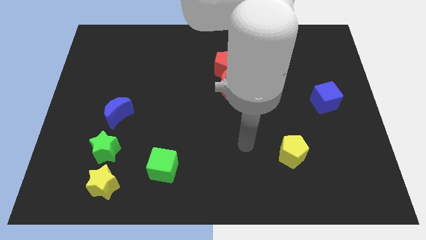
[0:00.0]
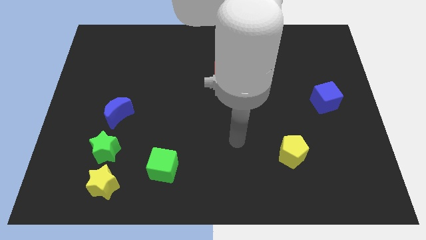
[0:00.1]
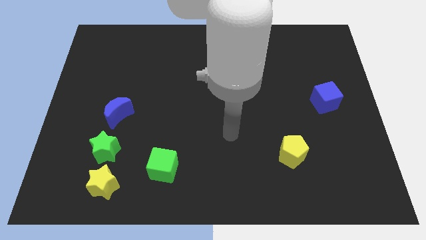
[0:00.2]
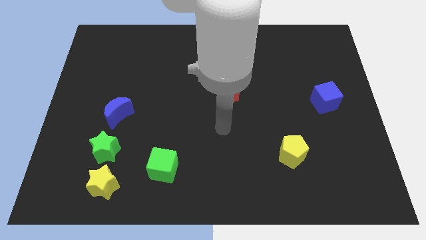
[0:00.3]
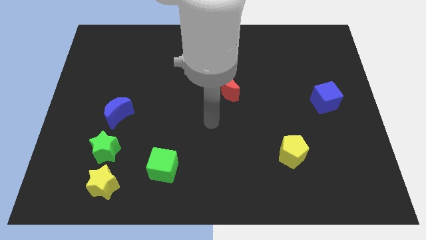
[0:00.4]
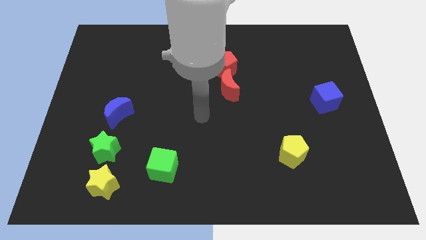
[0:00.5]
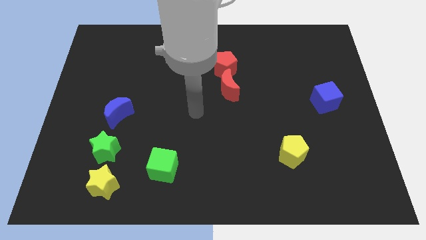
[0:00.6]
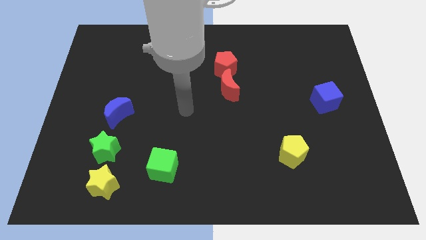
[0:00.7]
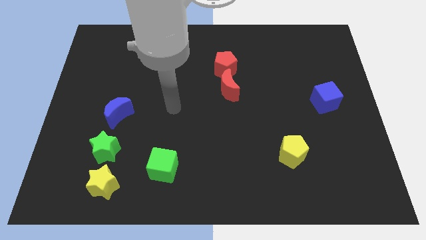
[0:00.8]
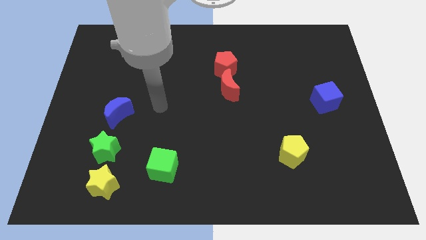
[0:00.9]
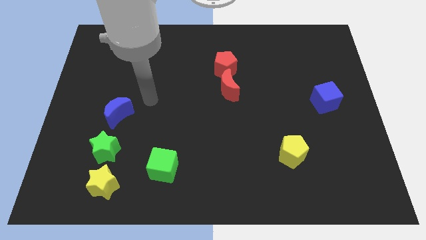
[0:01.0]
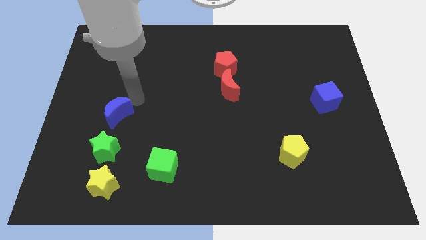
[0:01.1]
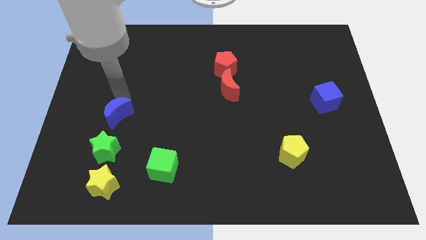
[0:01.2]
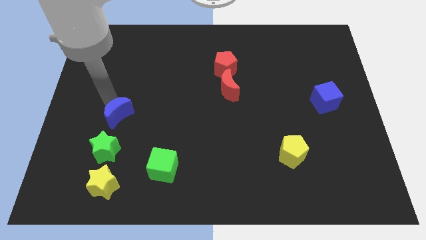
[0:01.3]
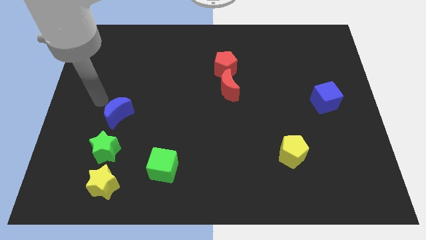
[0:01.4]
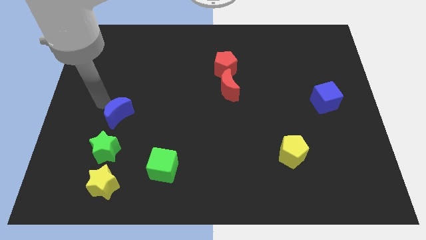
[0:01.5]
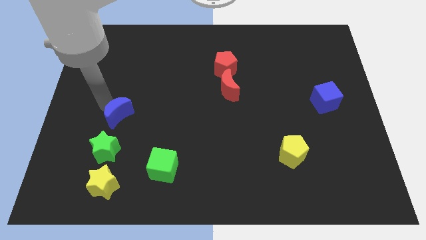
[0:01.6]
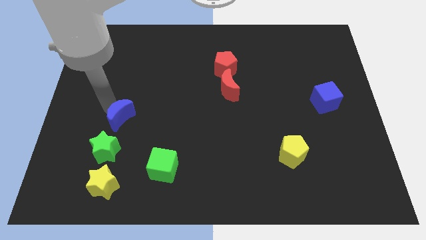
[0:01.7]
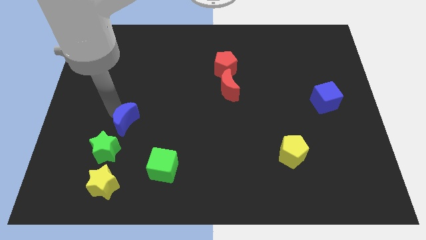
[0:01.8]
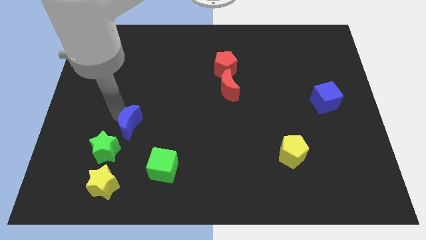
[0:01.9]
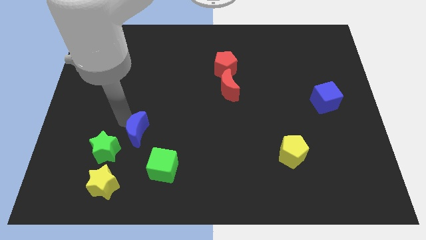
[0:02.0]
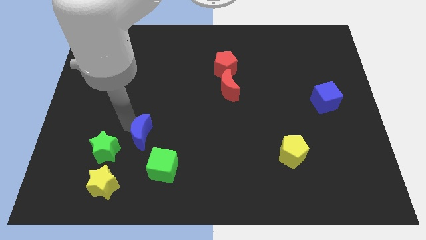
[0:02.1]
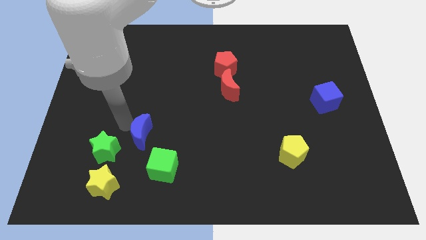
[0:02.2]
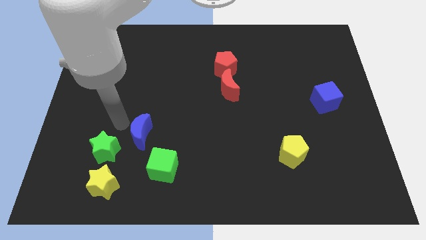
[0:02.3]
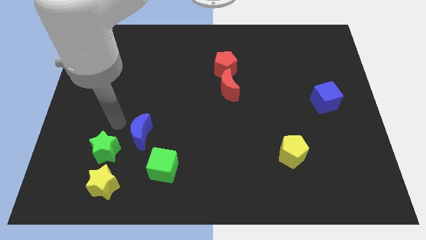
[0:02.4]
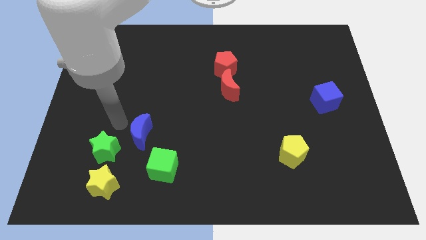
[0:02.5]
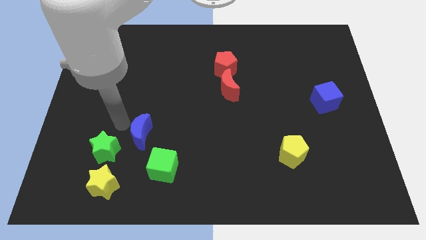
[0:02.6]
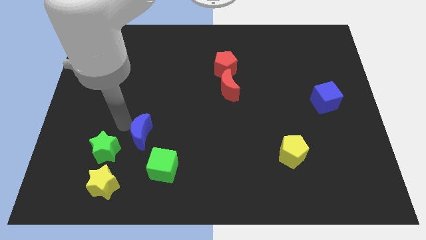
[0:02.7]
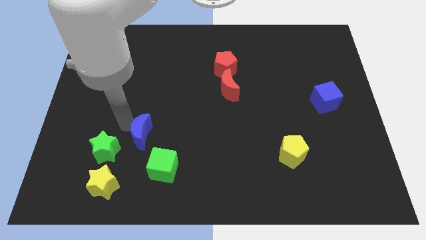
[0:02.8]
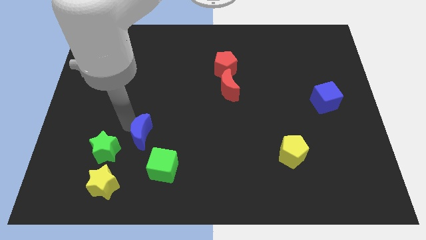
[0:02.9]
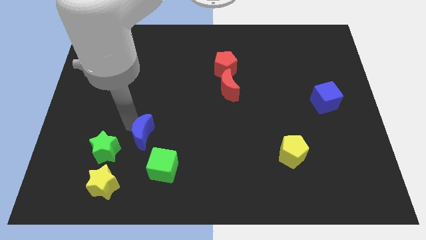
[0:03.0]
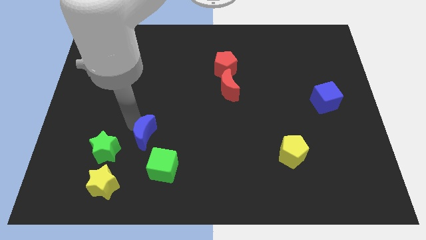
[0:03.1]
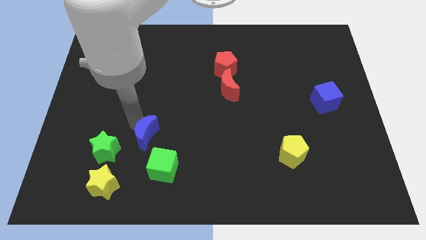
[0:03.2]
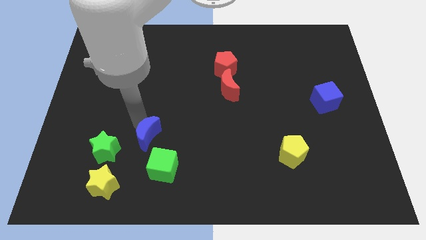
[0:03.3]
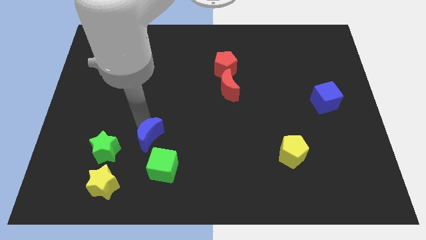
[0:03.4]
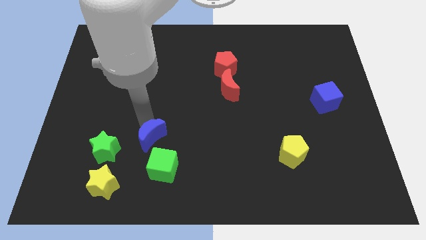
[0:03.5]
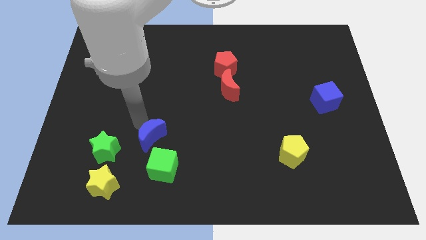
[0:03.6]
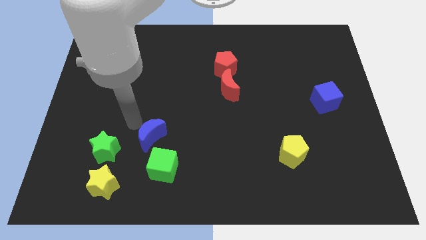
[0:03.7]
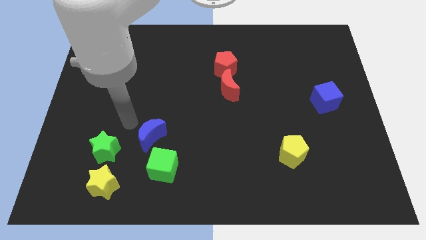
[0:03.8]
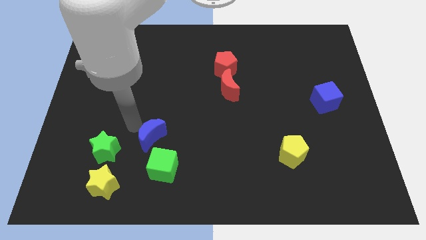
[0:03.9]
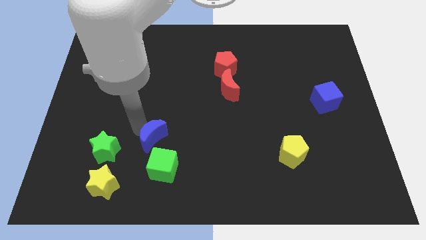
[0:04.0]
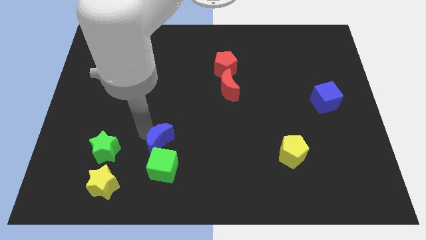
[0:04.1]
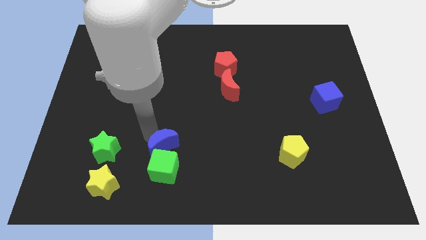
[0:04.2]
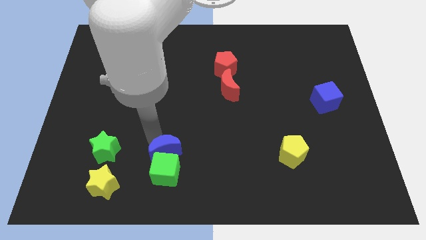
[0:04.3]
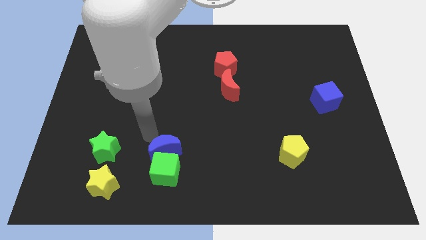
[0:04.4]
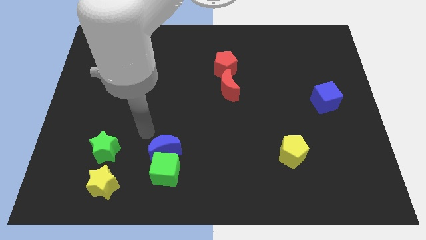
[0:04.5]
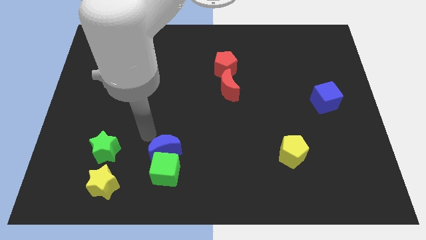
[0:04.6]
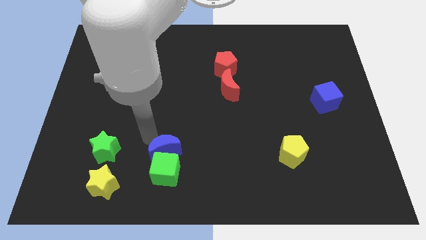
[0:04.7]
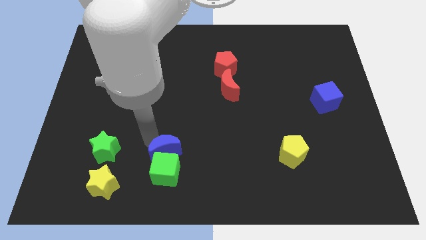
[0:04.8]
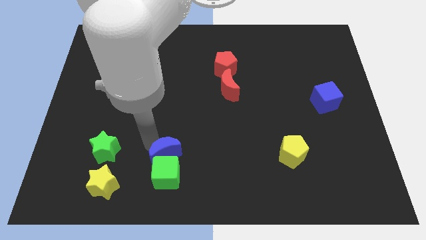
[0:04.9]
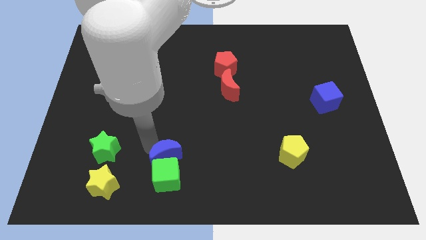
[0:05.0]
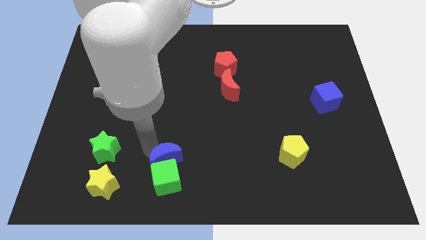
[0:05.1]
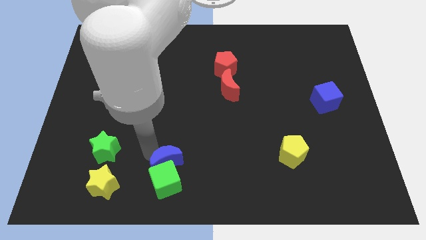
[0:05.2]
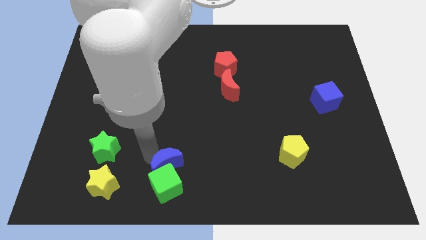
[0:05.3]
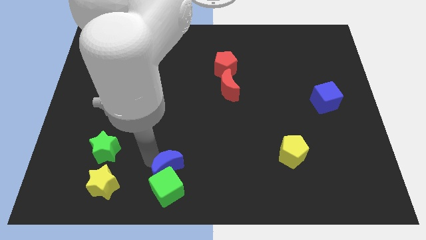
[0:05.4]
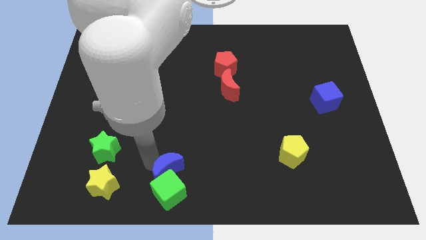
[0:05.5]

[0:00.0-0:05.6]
slide the blue moon to the bottom

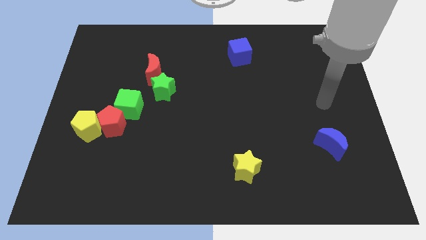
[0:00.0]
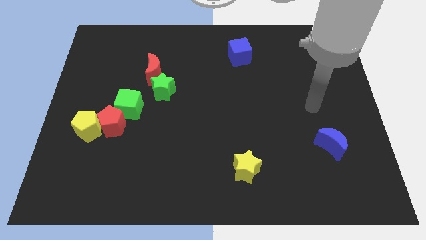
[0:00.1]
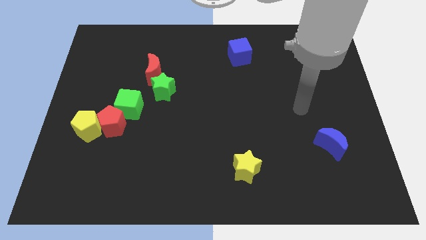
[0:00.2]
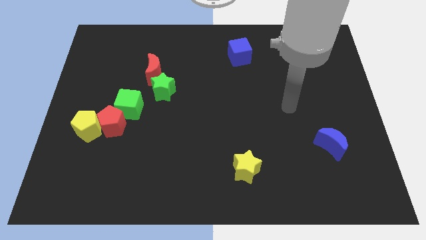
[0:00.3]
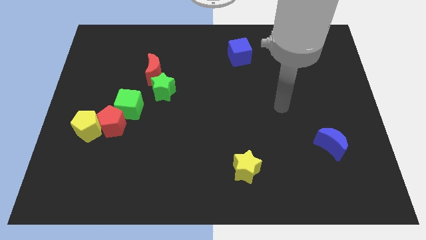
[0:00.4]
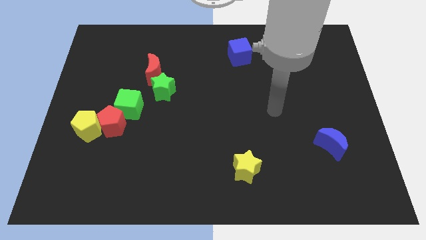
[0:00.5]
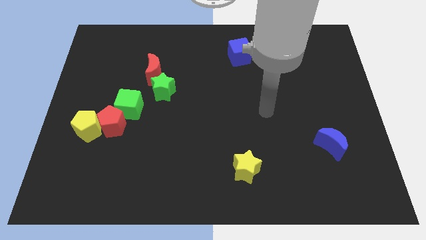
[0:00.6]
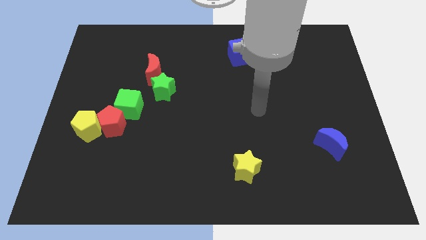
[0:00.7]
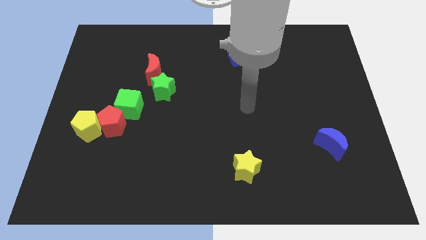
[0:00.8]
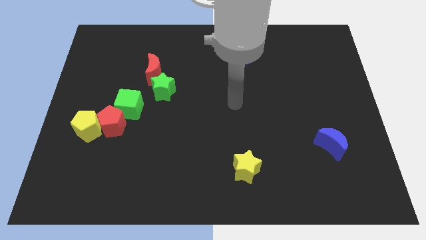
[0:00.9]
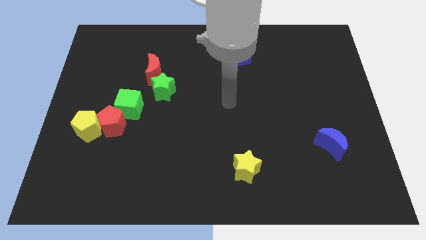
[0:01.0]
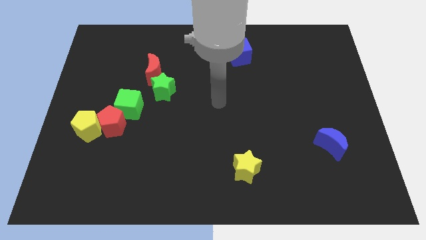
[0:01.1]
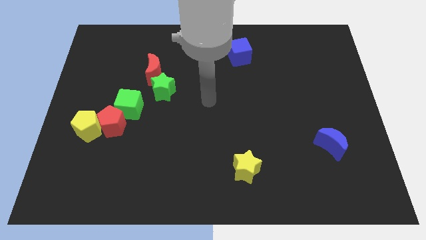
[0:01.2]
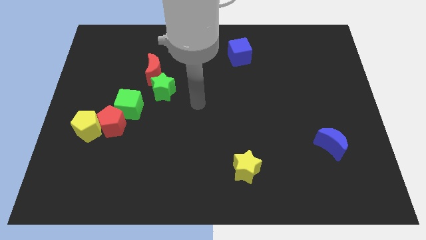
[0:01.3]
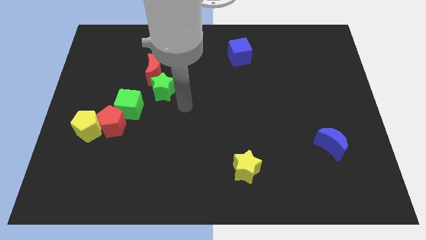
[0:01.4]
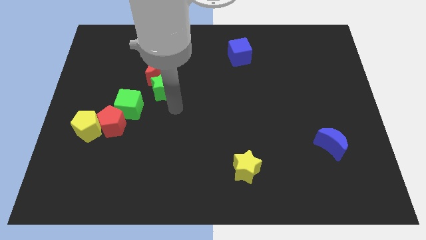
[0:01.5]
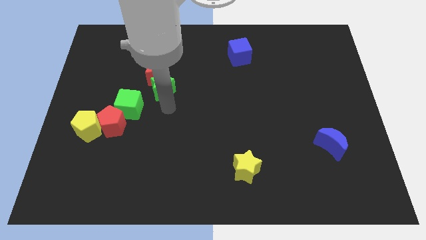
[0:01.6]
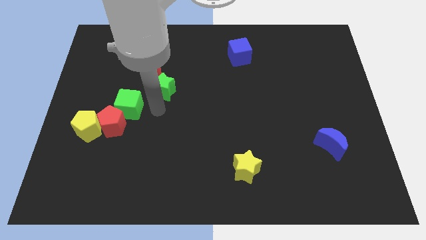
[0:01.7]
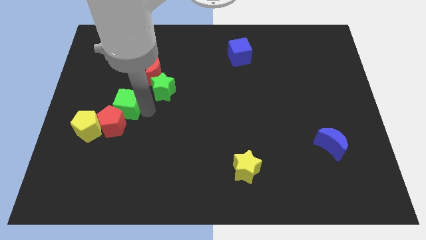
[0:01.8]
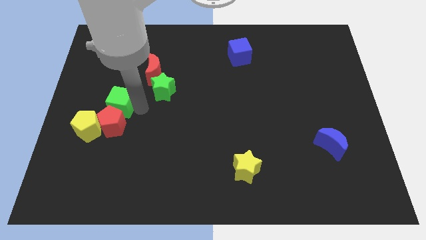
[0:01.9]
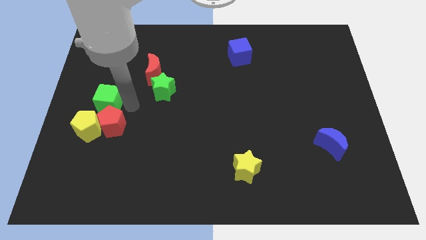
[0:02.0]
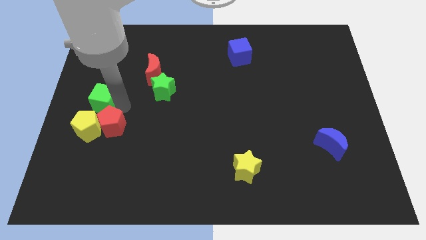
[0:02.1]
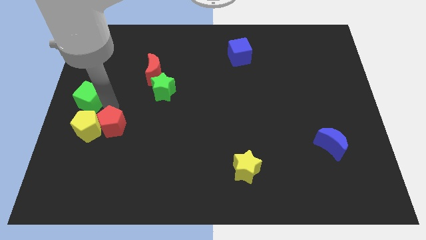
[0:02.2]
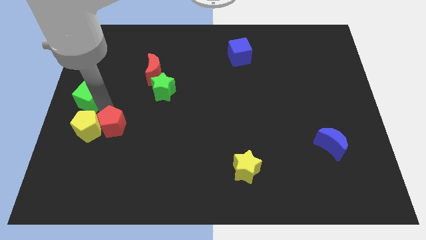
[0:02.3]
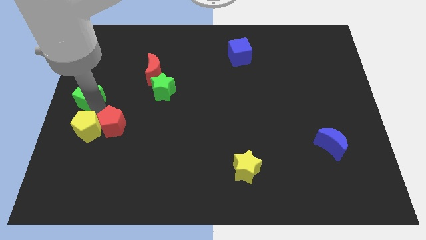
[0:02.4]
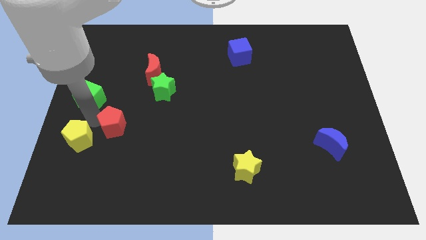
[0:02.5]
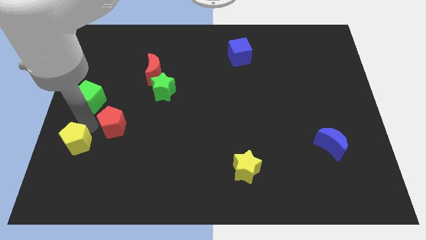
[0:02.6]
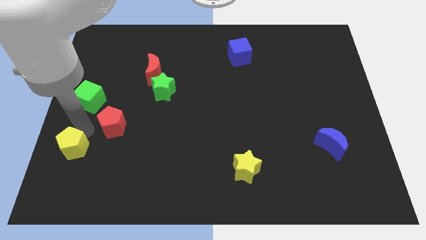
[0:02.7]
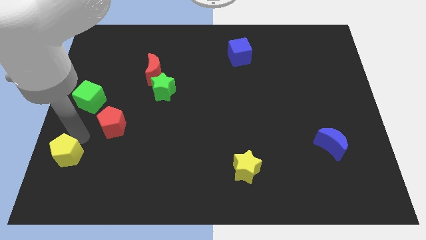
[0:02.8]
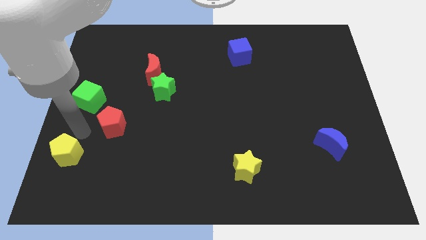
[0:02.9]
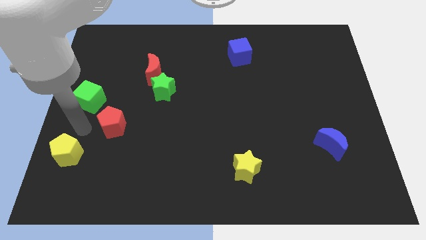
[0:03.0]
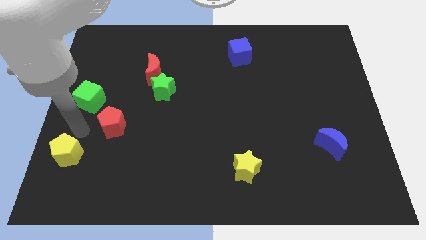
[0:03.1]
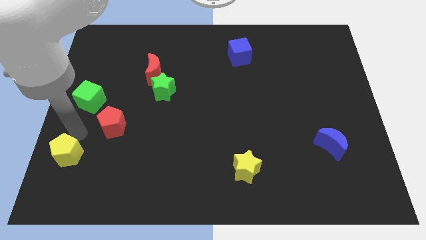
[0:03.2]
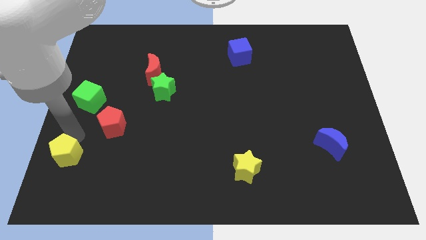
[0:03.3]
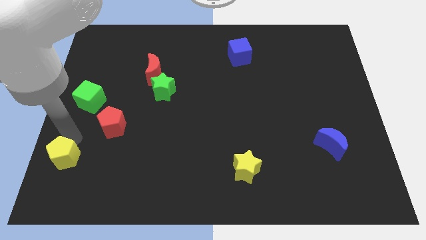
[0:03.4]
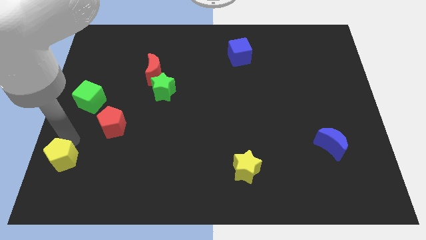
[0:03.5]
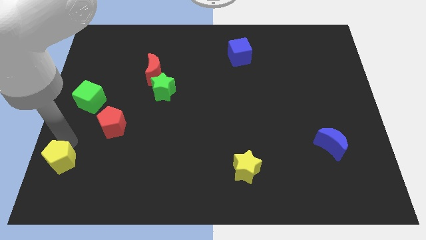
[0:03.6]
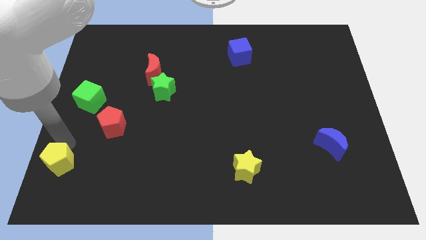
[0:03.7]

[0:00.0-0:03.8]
slide the yellow pentagon to the bottom left of the board
